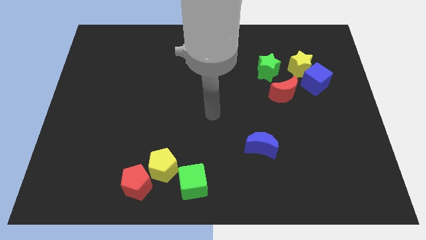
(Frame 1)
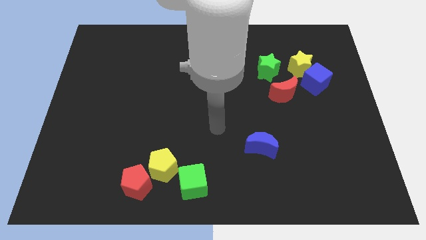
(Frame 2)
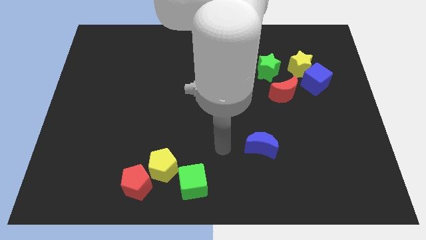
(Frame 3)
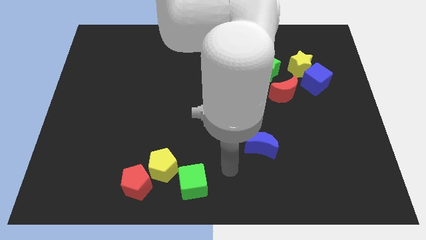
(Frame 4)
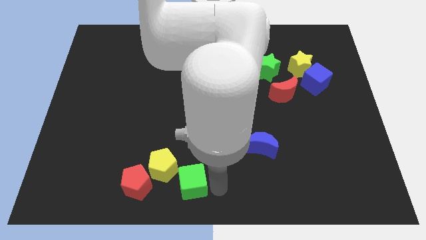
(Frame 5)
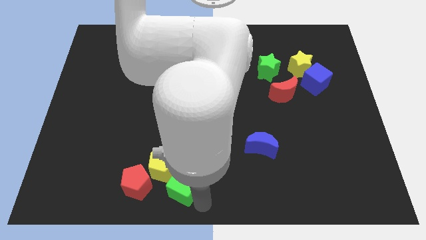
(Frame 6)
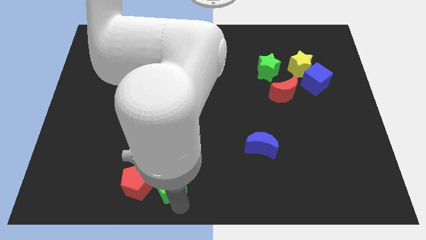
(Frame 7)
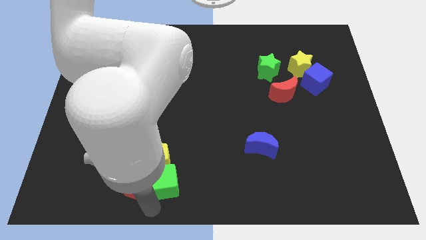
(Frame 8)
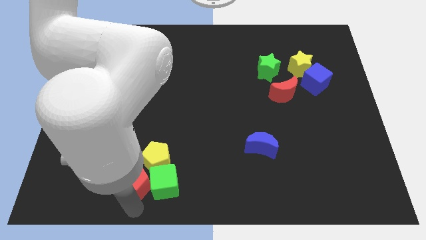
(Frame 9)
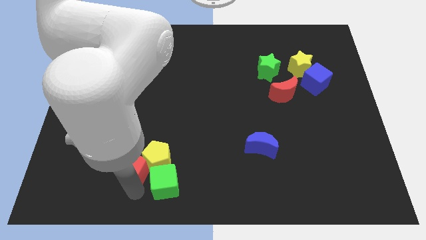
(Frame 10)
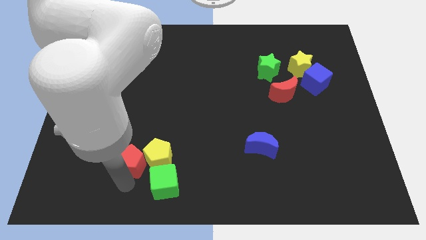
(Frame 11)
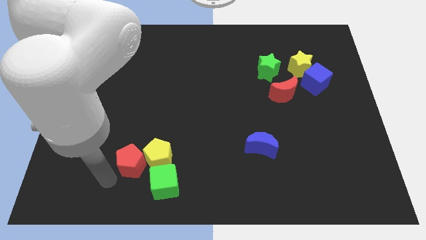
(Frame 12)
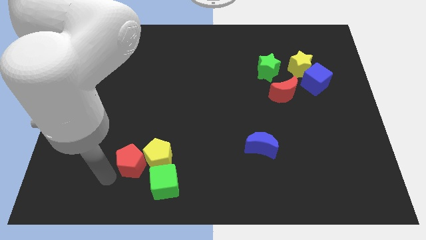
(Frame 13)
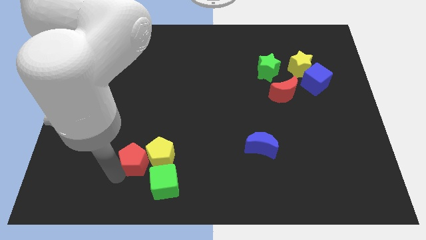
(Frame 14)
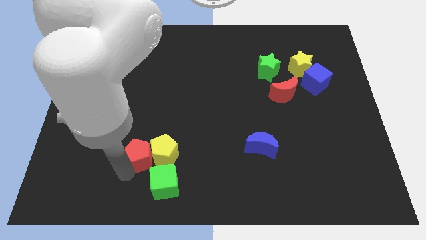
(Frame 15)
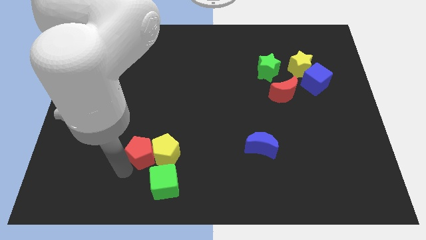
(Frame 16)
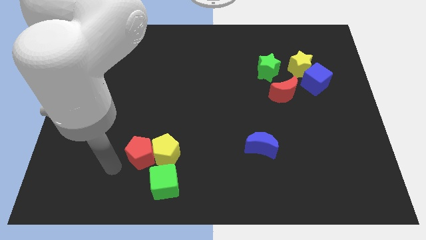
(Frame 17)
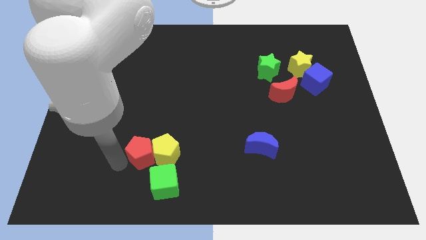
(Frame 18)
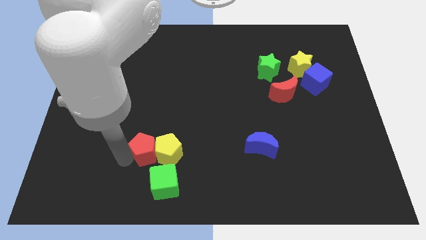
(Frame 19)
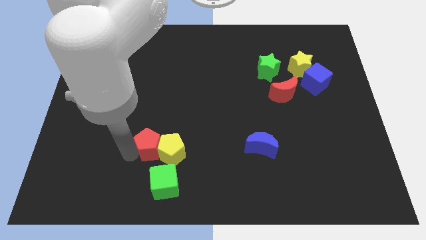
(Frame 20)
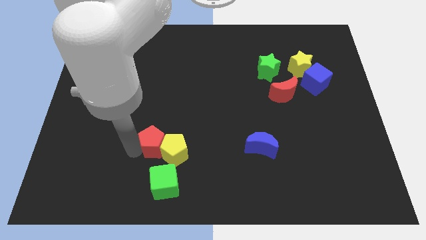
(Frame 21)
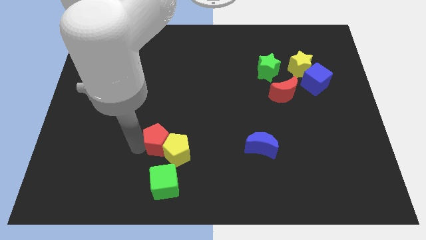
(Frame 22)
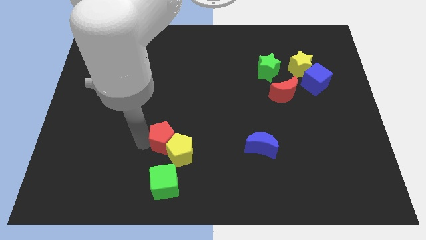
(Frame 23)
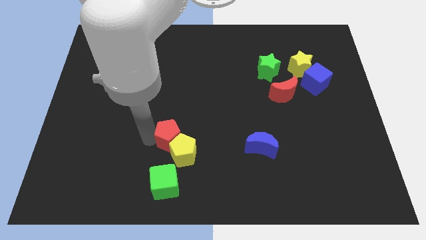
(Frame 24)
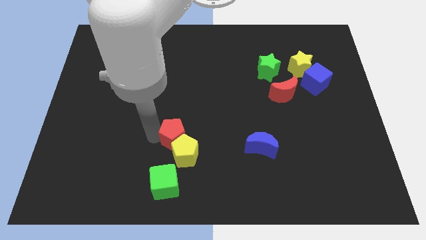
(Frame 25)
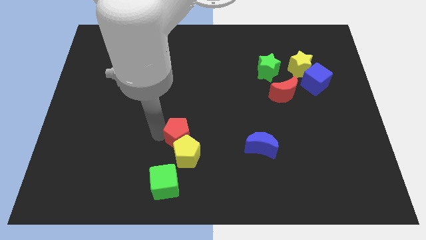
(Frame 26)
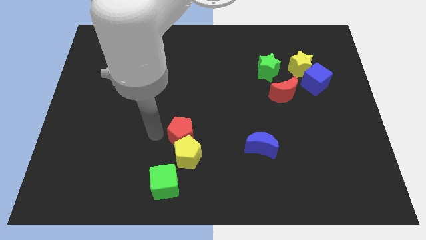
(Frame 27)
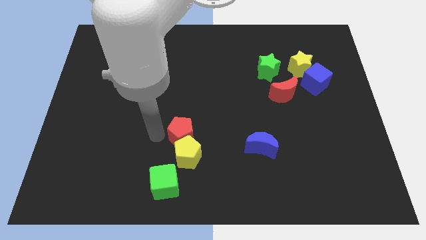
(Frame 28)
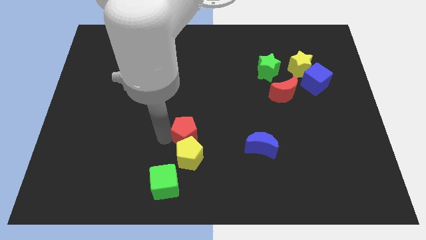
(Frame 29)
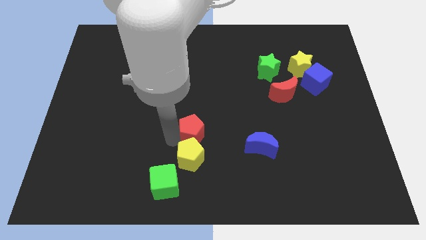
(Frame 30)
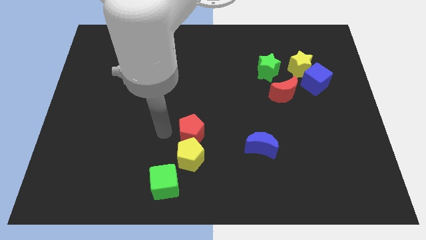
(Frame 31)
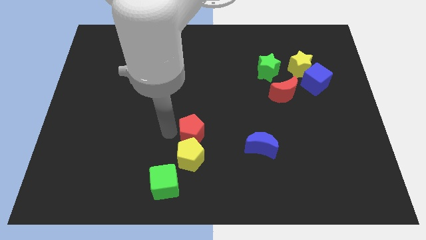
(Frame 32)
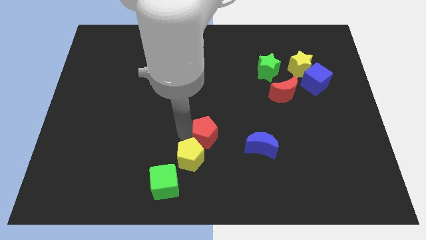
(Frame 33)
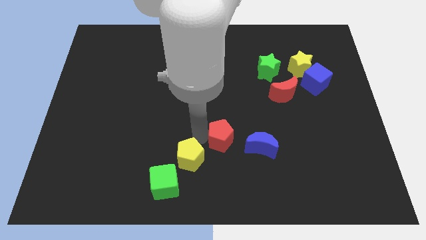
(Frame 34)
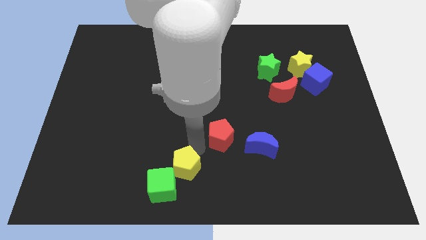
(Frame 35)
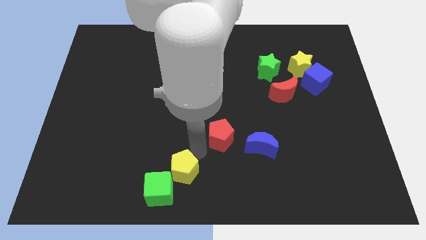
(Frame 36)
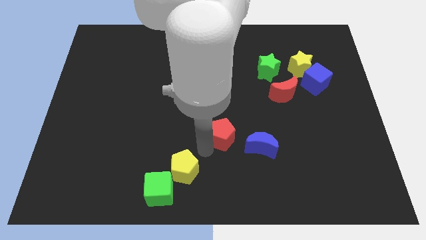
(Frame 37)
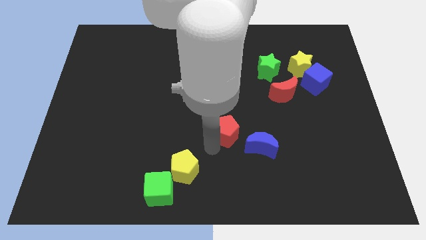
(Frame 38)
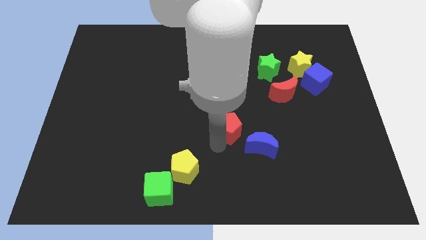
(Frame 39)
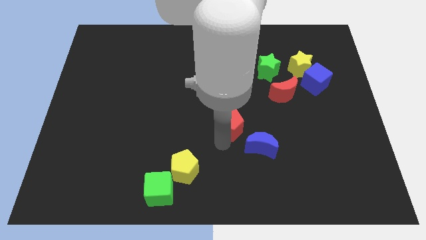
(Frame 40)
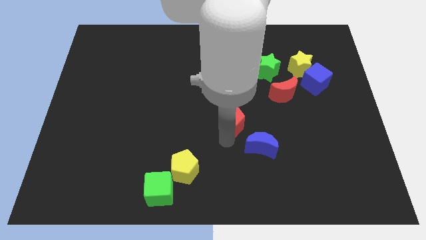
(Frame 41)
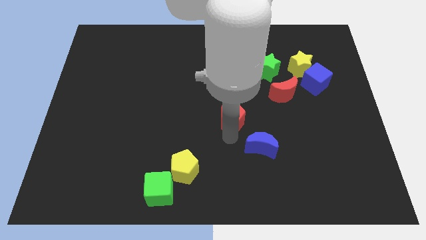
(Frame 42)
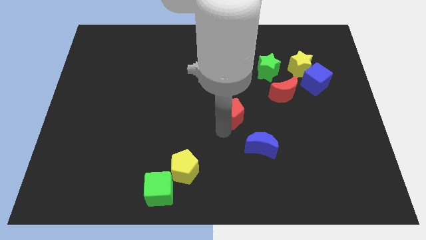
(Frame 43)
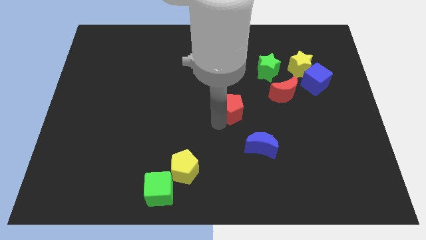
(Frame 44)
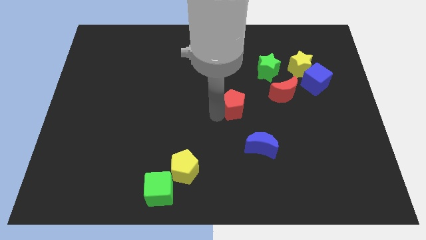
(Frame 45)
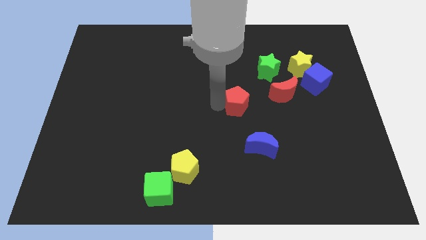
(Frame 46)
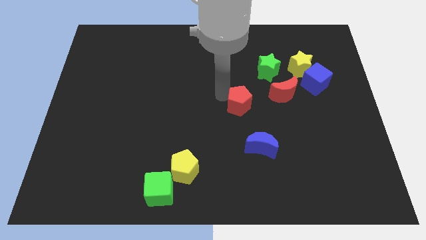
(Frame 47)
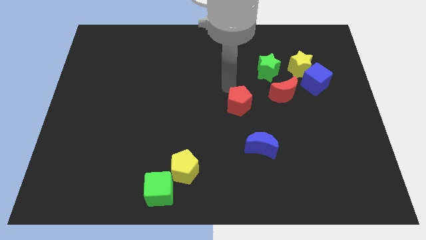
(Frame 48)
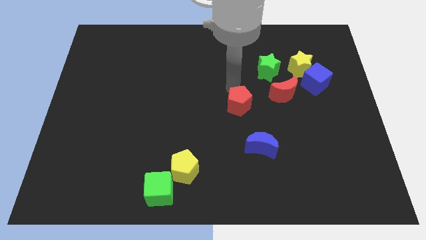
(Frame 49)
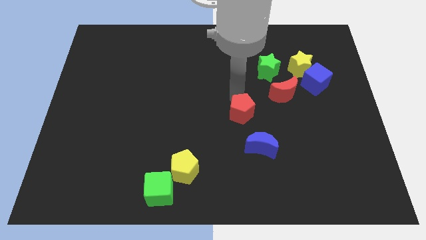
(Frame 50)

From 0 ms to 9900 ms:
put the red pentagon to the bottom left side of the red moon

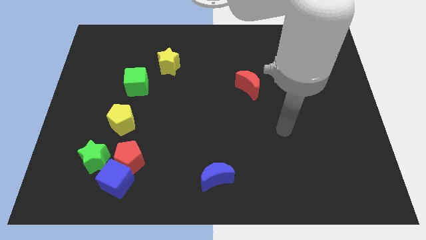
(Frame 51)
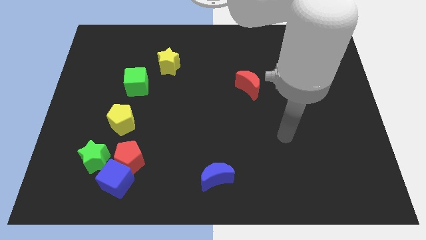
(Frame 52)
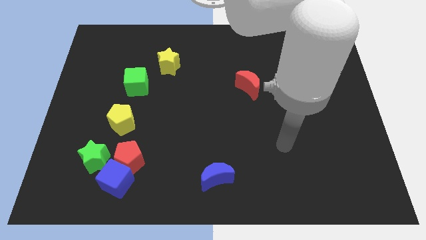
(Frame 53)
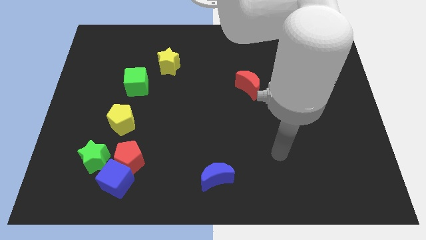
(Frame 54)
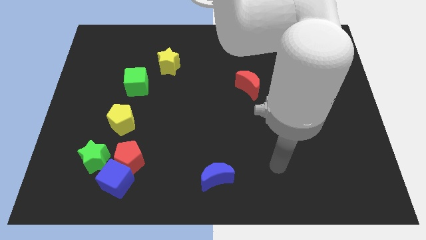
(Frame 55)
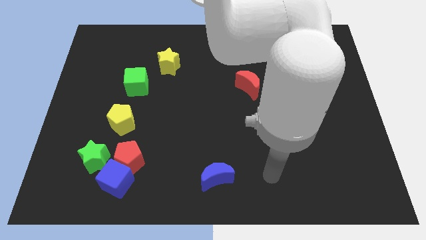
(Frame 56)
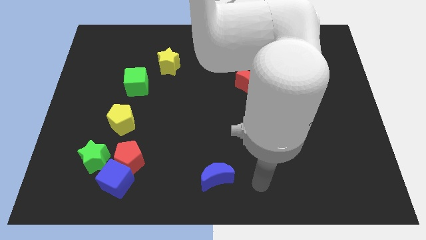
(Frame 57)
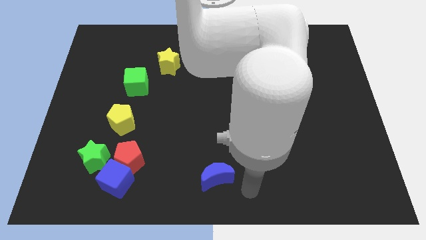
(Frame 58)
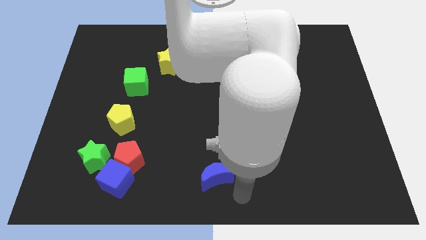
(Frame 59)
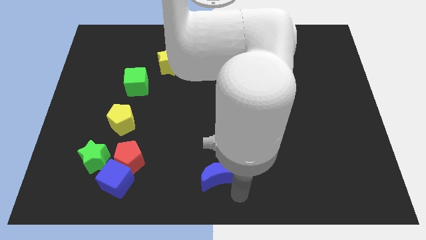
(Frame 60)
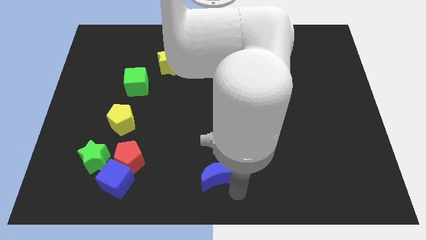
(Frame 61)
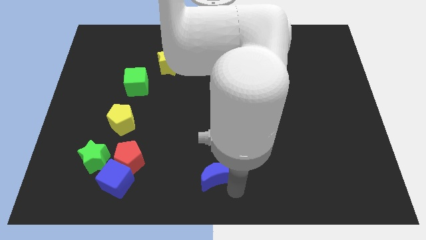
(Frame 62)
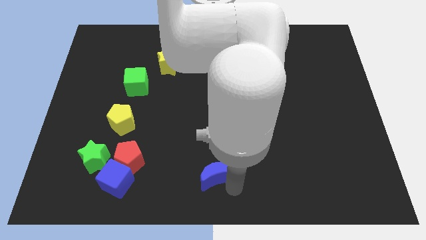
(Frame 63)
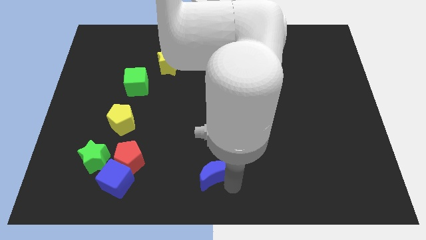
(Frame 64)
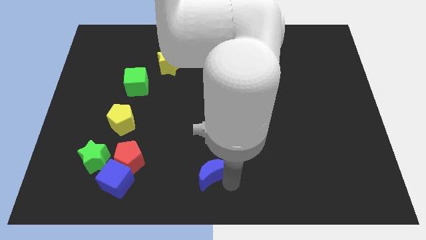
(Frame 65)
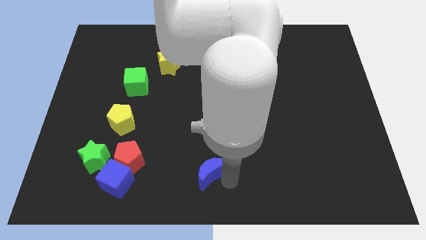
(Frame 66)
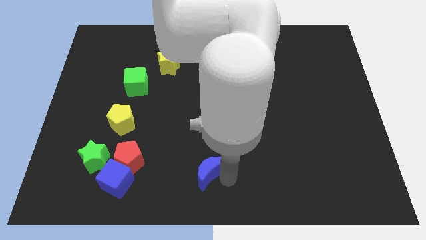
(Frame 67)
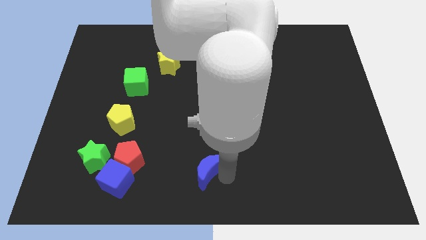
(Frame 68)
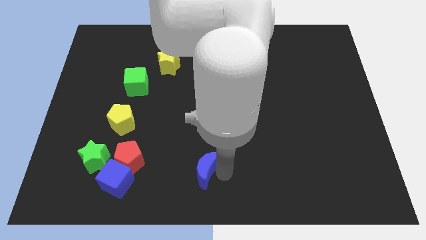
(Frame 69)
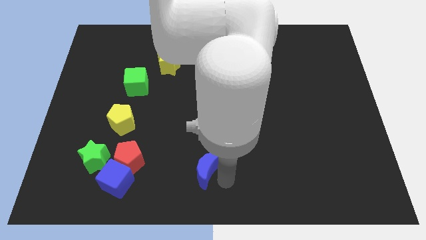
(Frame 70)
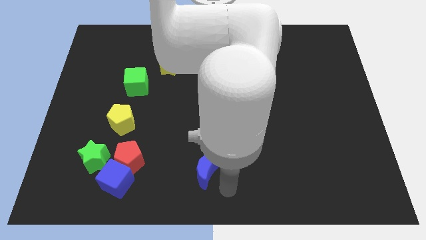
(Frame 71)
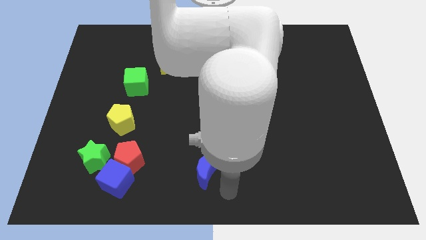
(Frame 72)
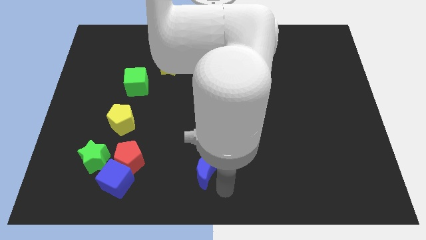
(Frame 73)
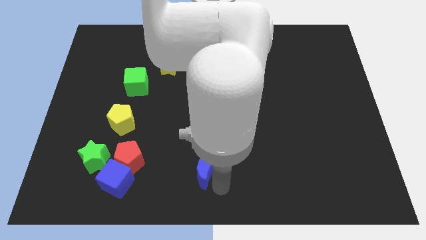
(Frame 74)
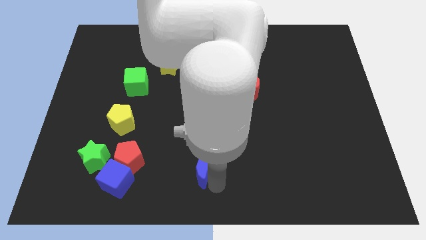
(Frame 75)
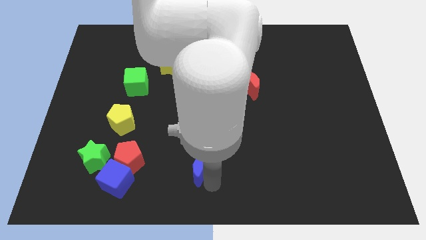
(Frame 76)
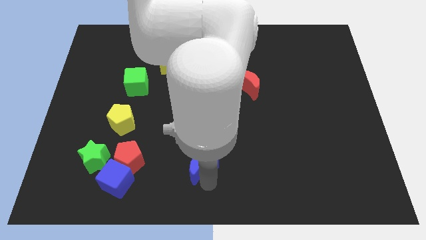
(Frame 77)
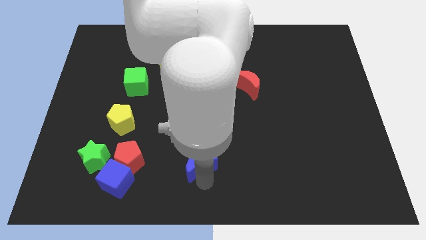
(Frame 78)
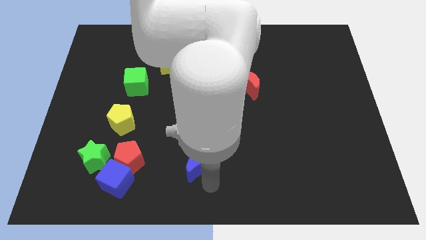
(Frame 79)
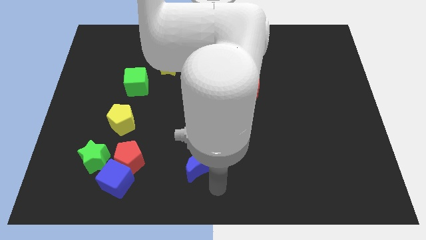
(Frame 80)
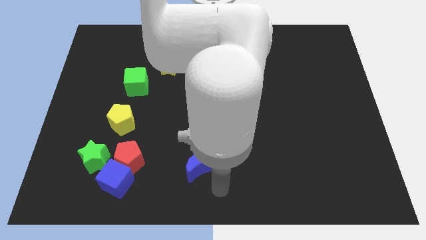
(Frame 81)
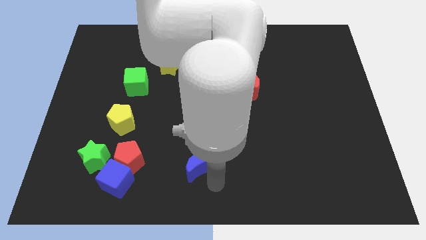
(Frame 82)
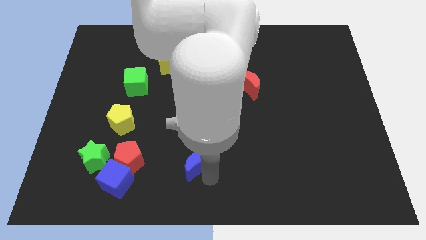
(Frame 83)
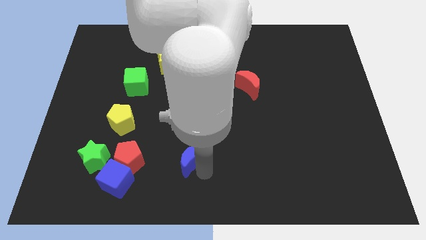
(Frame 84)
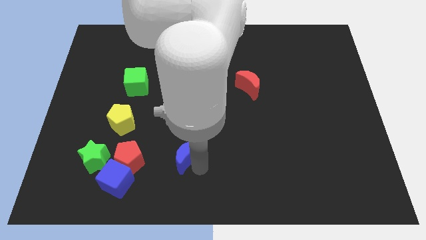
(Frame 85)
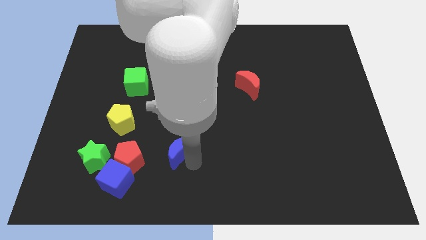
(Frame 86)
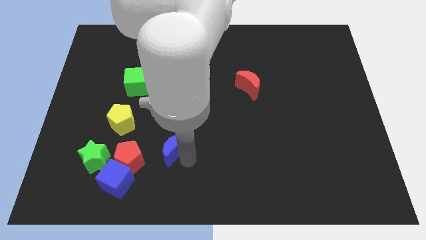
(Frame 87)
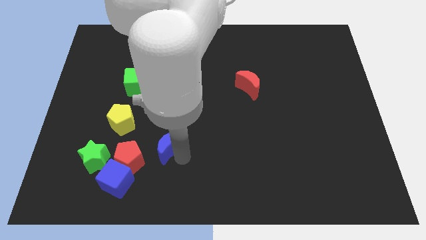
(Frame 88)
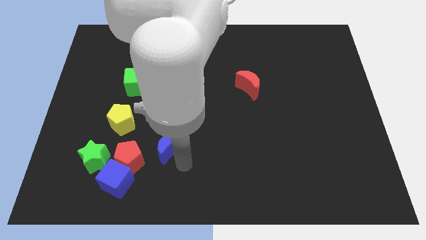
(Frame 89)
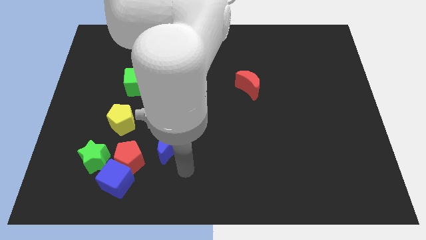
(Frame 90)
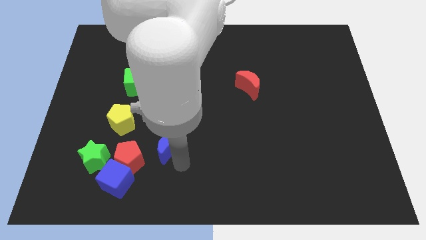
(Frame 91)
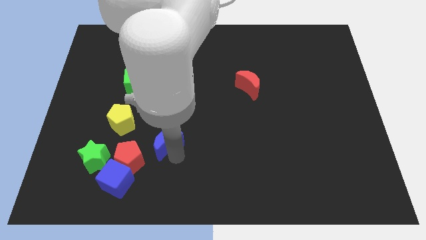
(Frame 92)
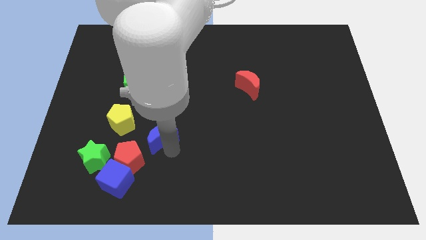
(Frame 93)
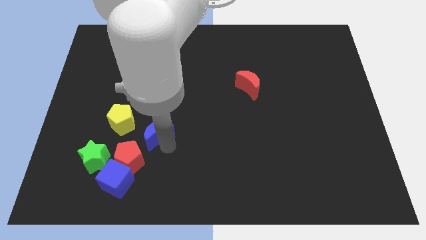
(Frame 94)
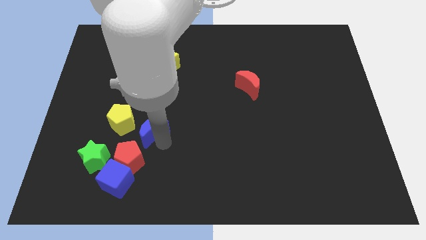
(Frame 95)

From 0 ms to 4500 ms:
slide the blue moon above the red pentagon
